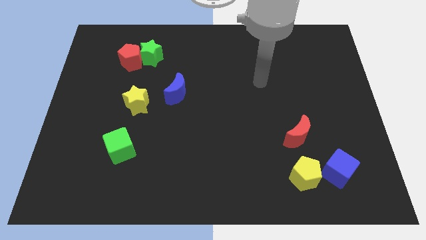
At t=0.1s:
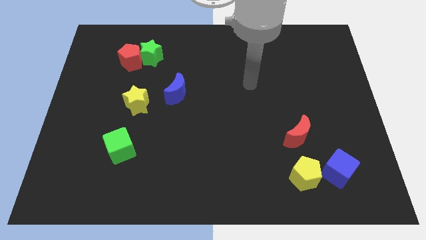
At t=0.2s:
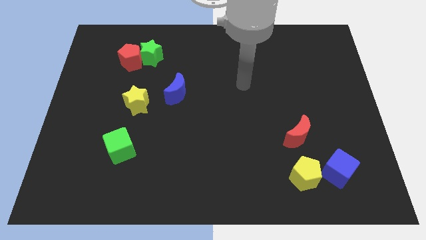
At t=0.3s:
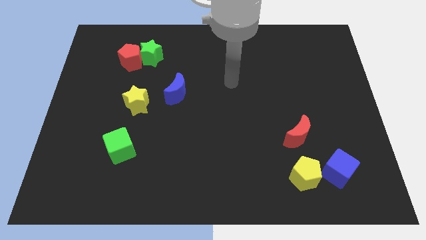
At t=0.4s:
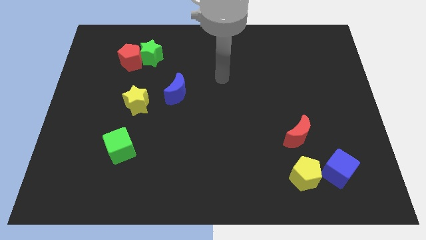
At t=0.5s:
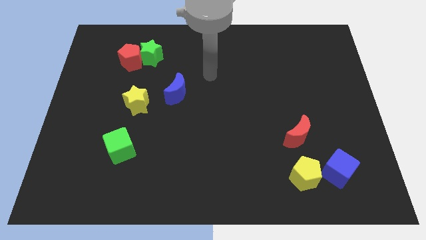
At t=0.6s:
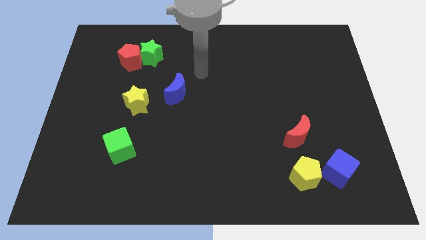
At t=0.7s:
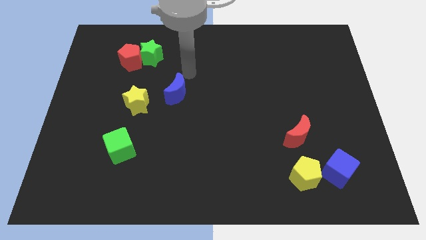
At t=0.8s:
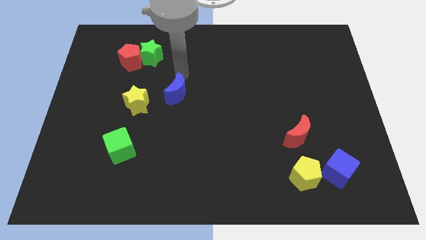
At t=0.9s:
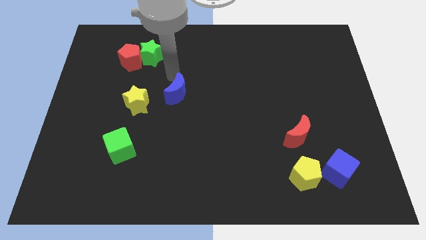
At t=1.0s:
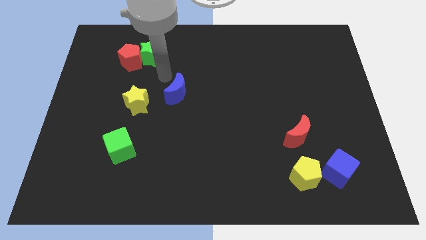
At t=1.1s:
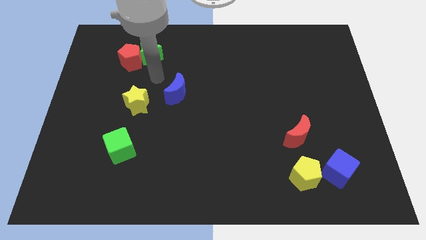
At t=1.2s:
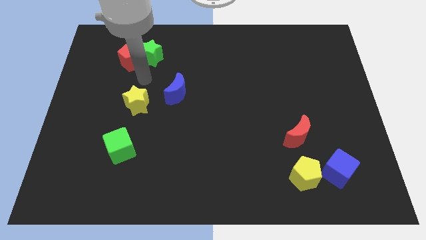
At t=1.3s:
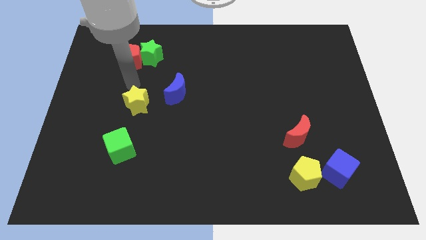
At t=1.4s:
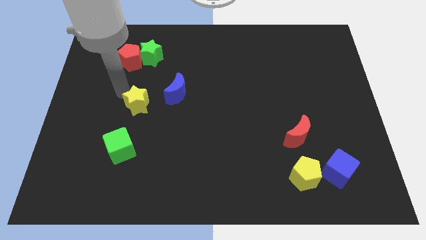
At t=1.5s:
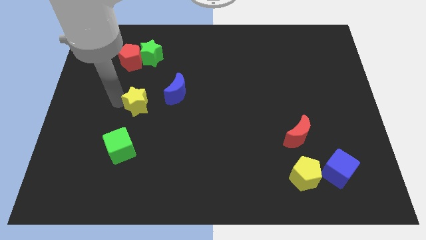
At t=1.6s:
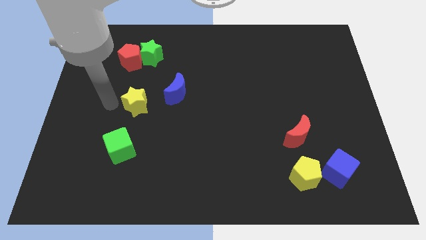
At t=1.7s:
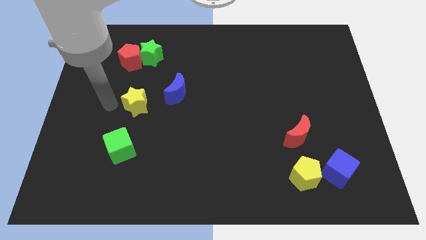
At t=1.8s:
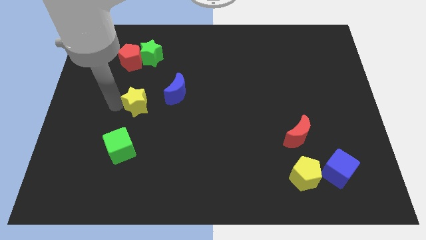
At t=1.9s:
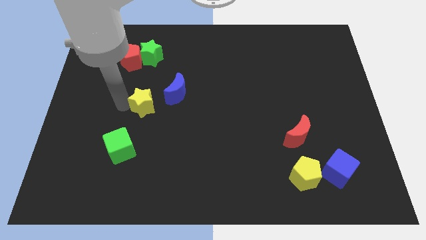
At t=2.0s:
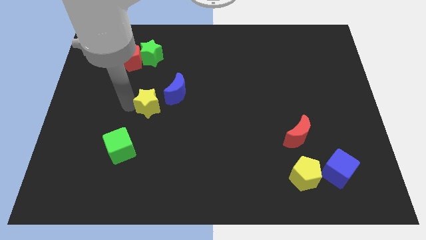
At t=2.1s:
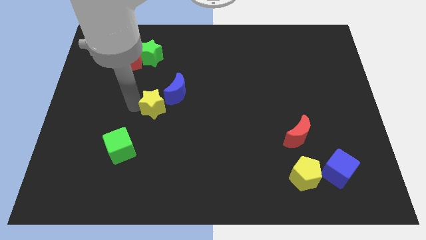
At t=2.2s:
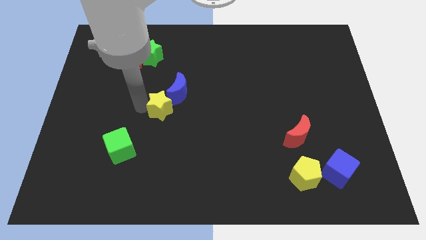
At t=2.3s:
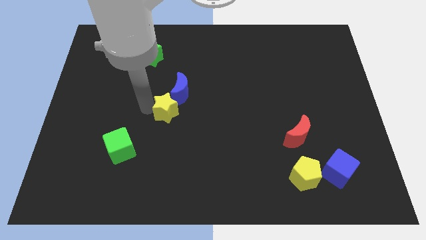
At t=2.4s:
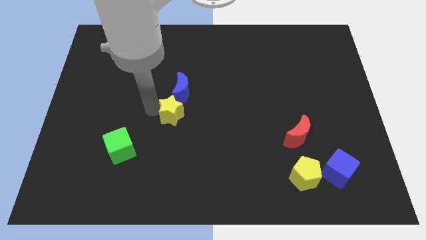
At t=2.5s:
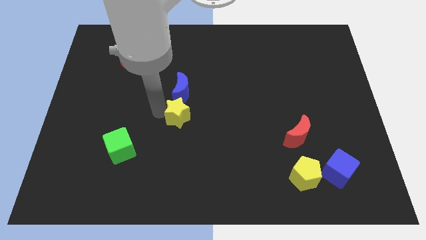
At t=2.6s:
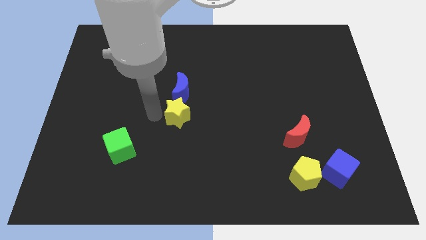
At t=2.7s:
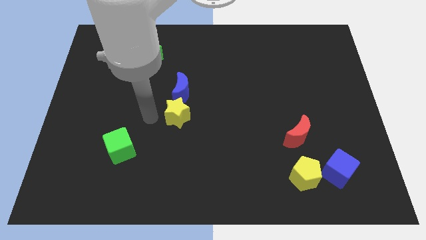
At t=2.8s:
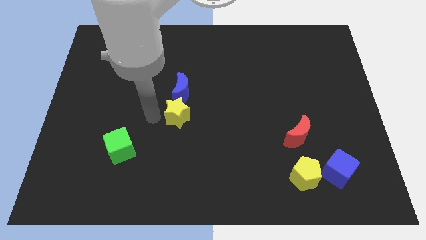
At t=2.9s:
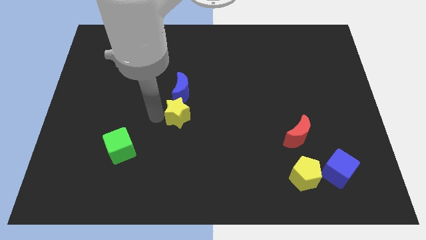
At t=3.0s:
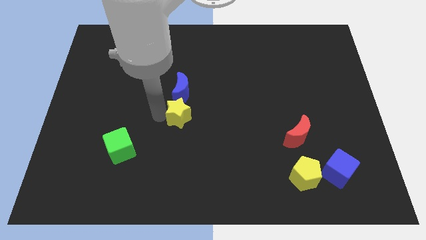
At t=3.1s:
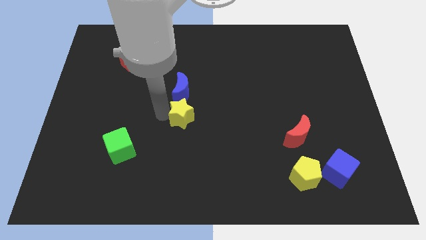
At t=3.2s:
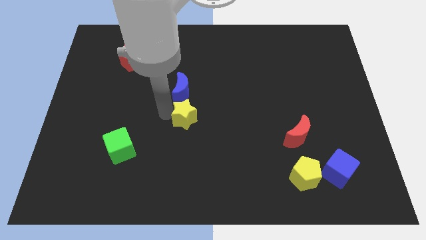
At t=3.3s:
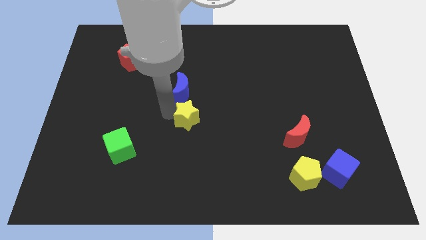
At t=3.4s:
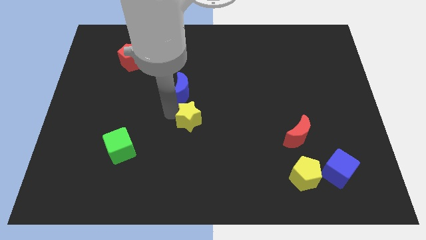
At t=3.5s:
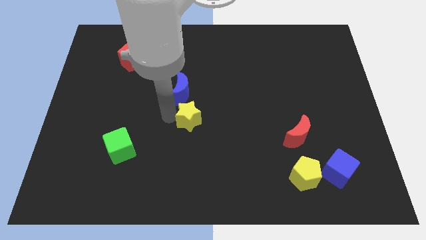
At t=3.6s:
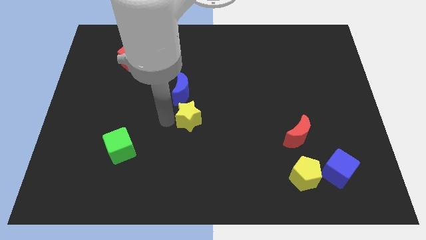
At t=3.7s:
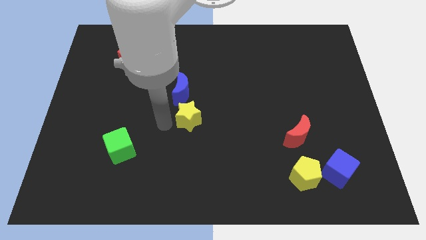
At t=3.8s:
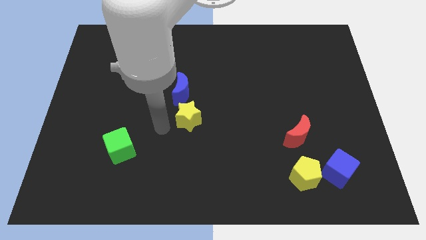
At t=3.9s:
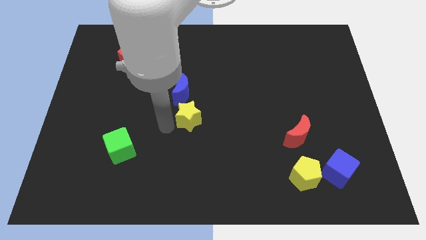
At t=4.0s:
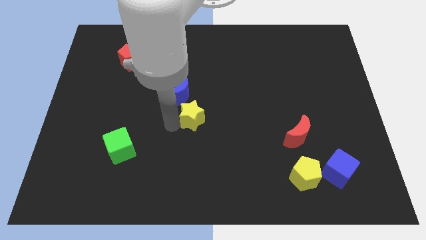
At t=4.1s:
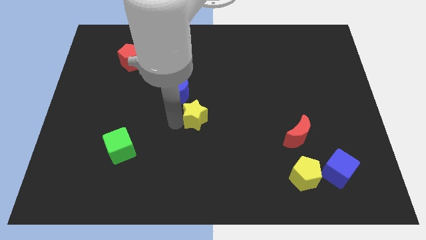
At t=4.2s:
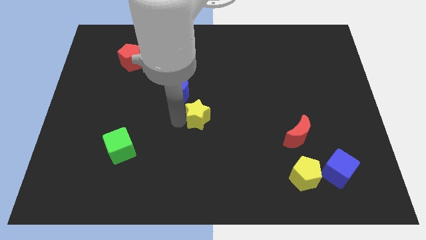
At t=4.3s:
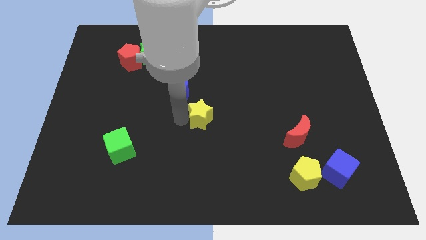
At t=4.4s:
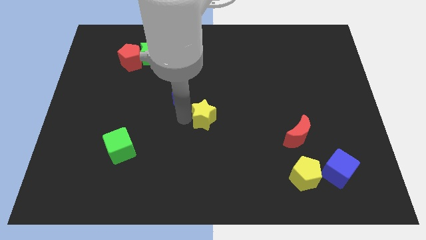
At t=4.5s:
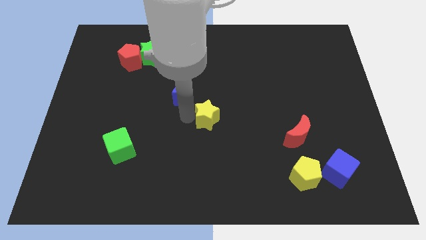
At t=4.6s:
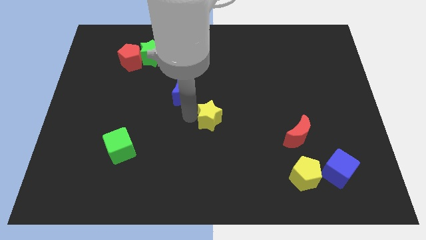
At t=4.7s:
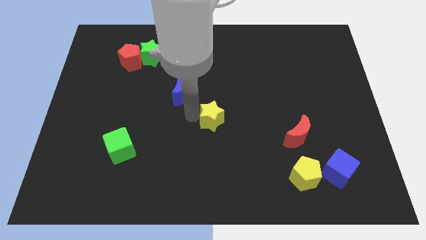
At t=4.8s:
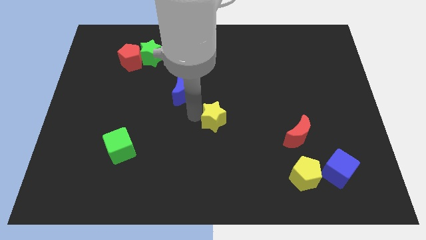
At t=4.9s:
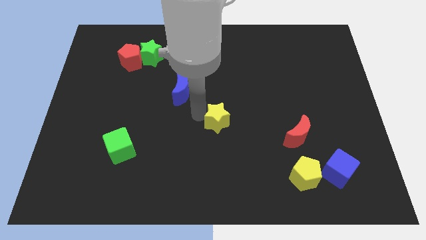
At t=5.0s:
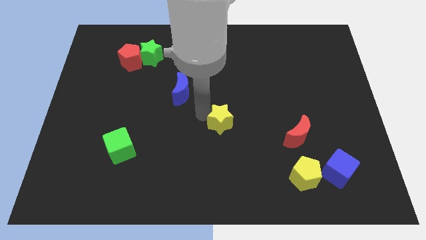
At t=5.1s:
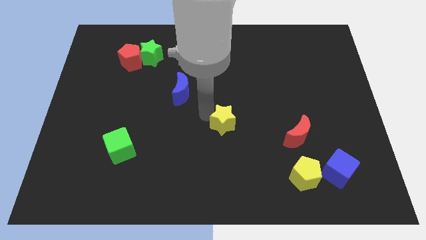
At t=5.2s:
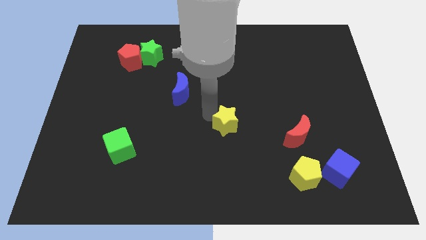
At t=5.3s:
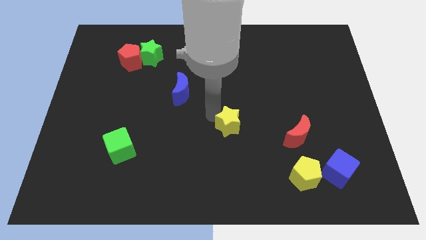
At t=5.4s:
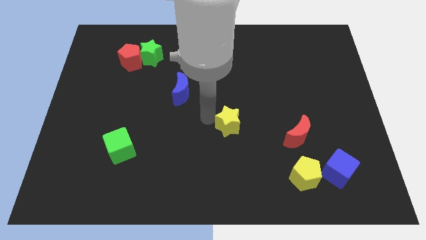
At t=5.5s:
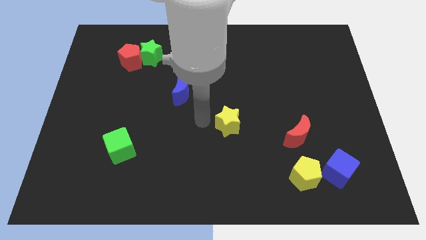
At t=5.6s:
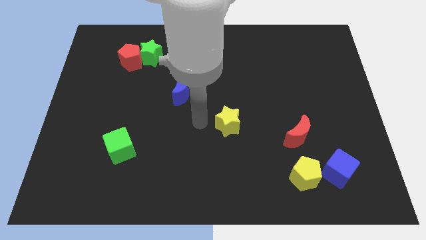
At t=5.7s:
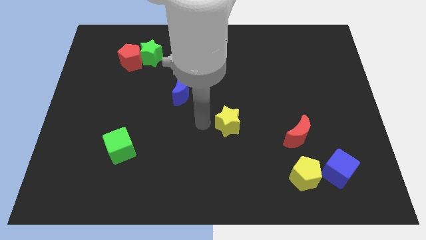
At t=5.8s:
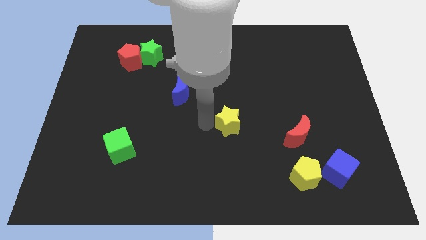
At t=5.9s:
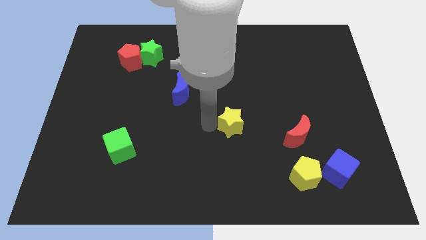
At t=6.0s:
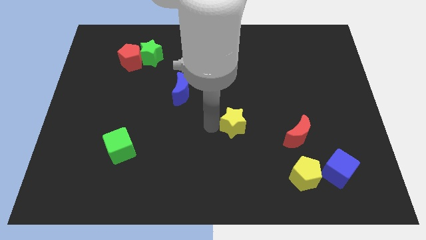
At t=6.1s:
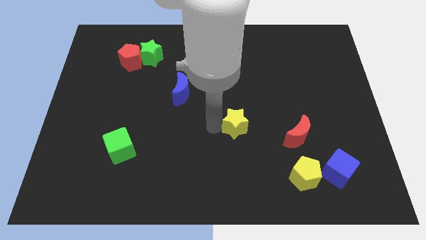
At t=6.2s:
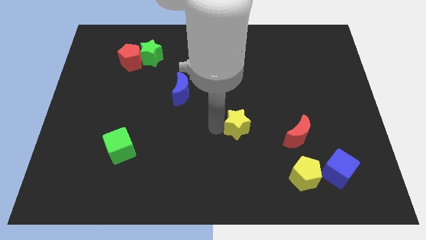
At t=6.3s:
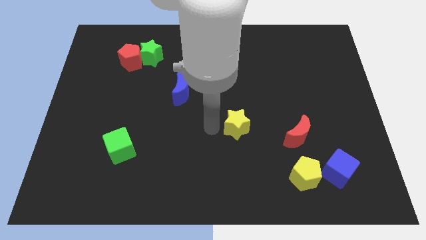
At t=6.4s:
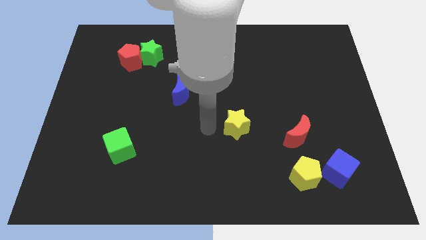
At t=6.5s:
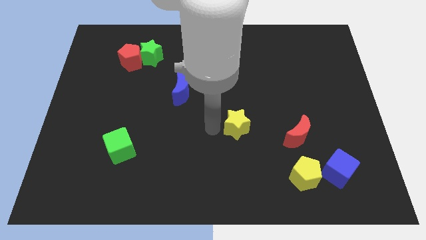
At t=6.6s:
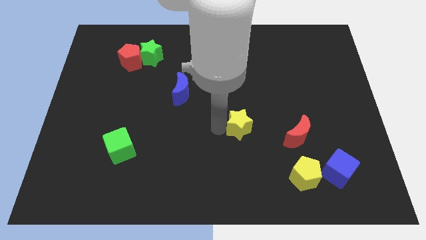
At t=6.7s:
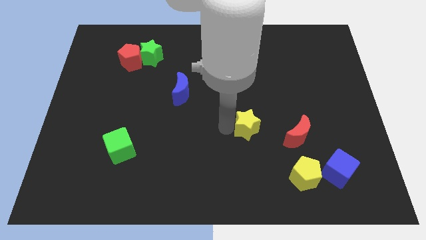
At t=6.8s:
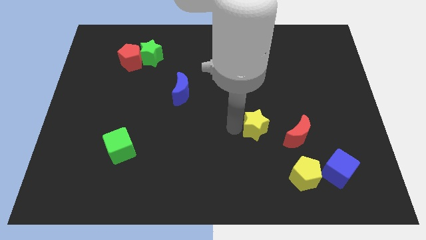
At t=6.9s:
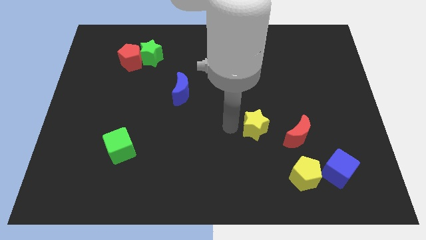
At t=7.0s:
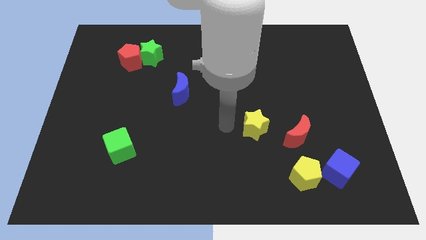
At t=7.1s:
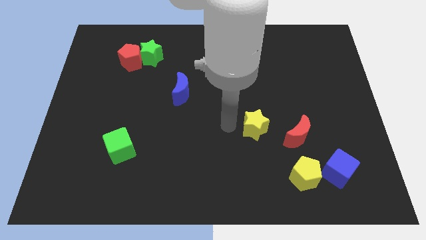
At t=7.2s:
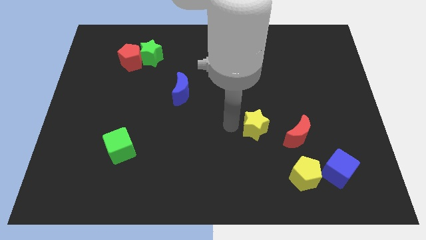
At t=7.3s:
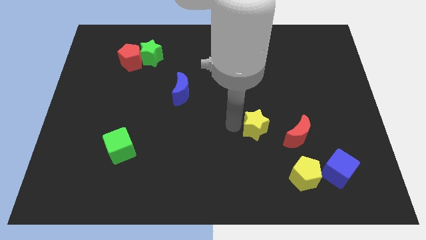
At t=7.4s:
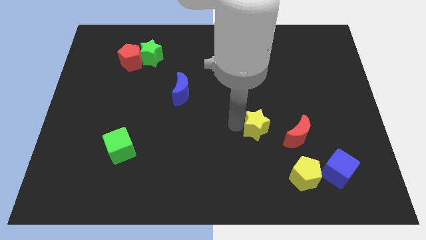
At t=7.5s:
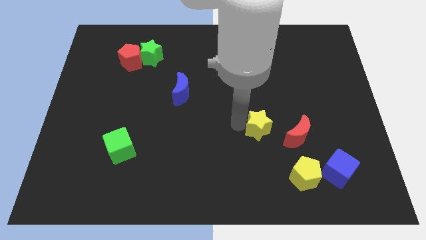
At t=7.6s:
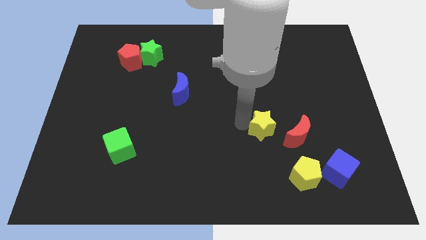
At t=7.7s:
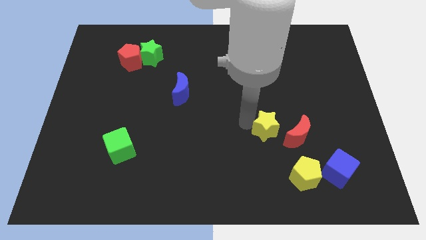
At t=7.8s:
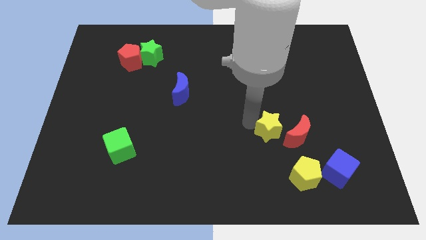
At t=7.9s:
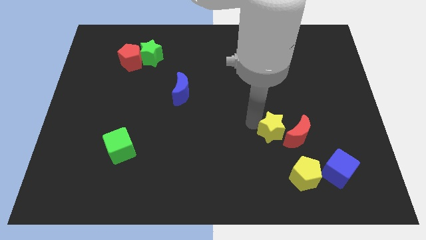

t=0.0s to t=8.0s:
push the yellow star close to the red moon
